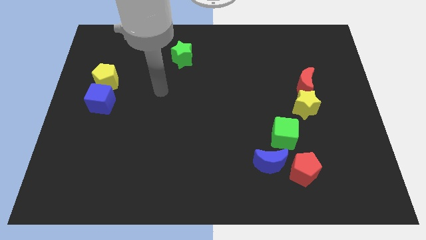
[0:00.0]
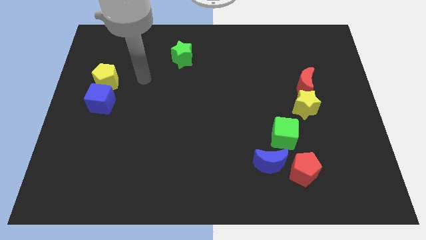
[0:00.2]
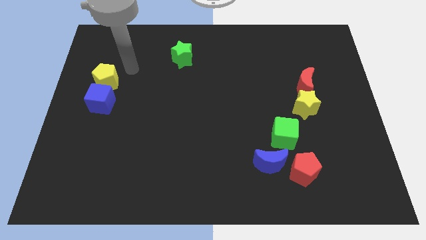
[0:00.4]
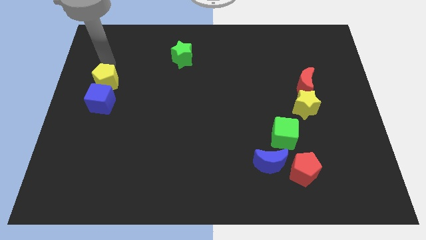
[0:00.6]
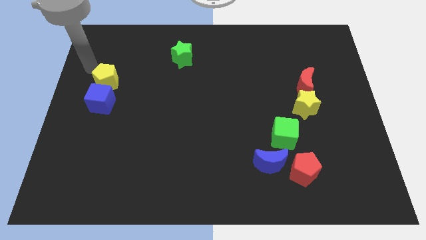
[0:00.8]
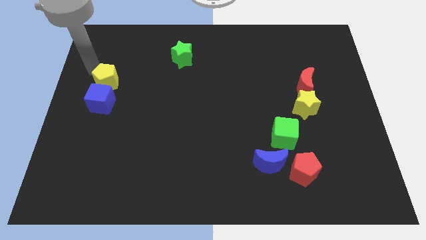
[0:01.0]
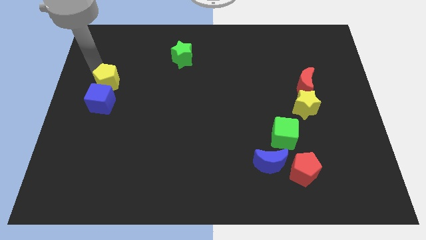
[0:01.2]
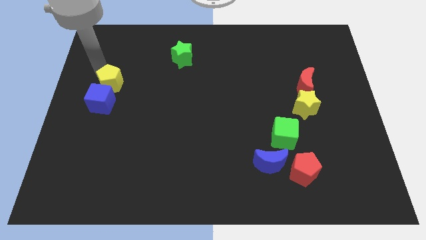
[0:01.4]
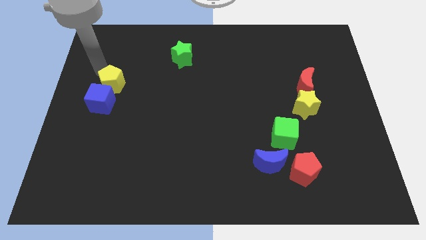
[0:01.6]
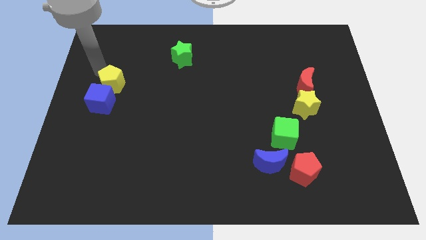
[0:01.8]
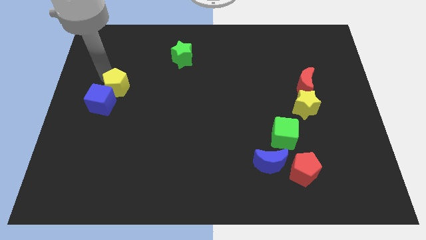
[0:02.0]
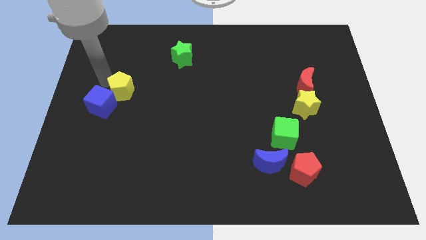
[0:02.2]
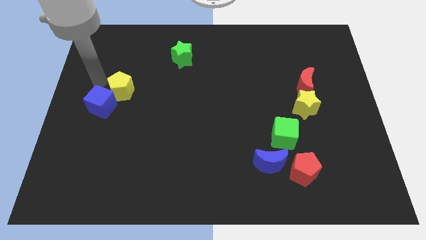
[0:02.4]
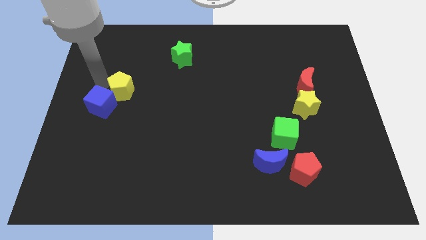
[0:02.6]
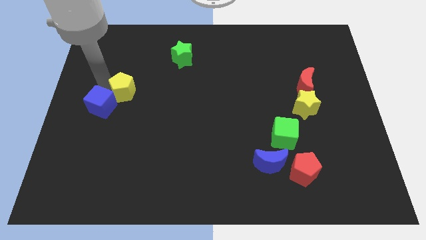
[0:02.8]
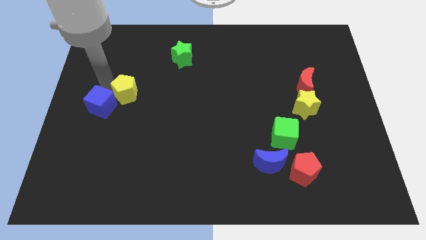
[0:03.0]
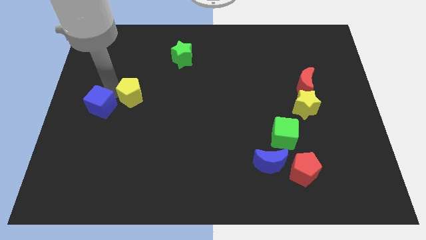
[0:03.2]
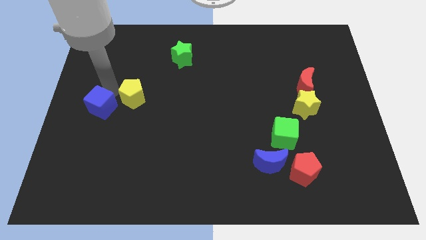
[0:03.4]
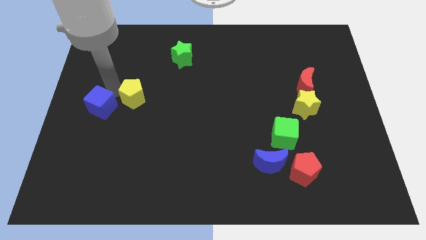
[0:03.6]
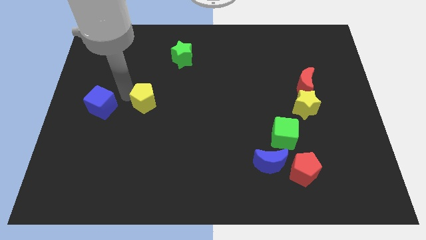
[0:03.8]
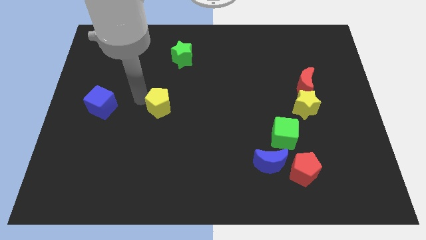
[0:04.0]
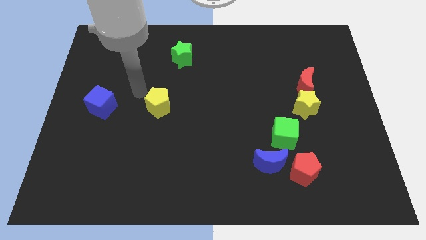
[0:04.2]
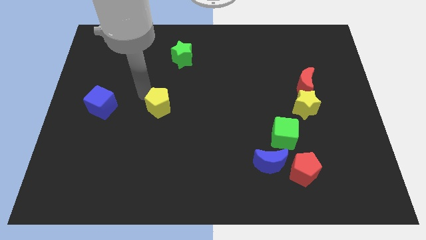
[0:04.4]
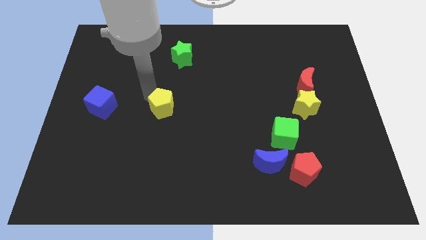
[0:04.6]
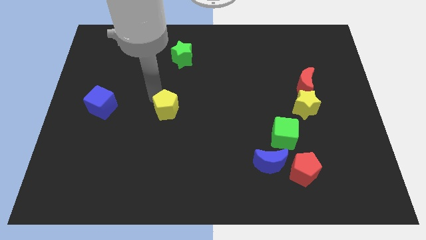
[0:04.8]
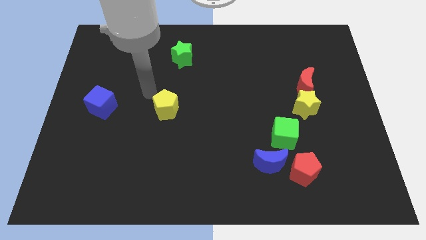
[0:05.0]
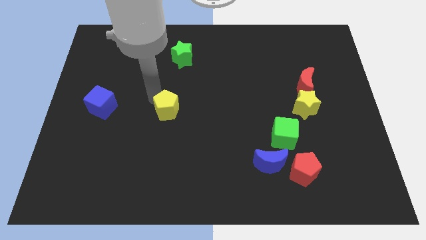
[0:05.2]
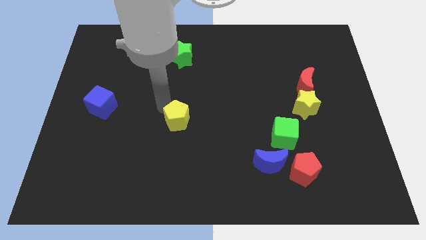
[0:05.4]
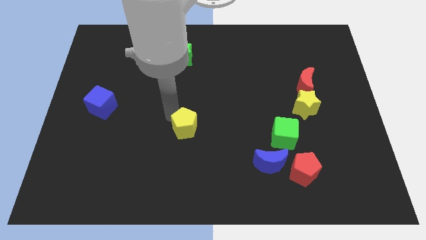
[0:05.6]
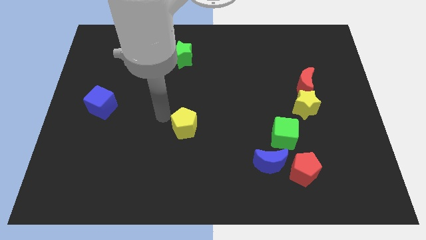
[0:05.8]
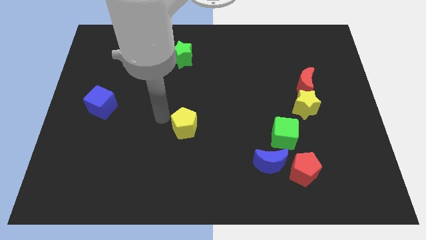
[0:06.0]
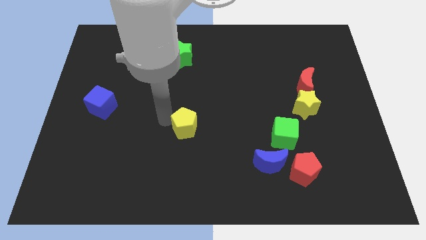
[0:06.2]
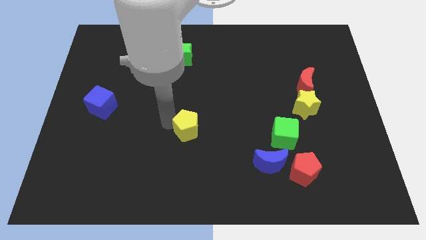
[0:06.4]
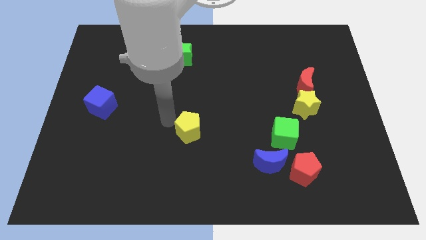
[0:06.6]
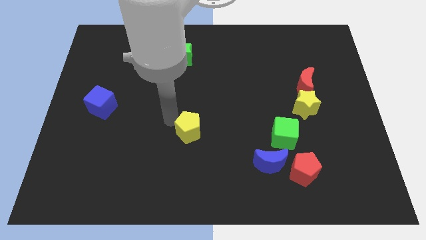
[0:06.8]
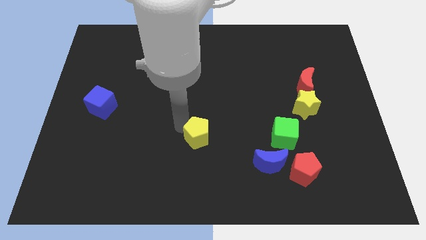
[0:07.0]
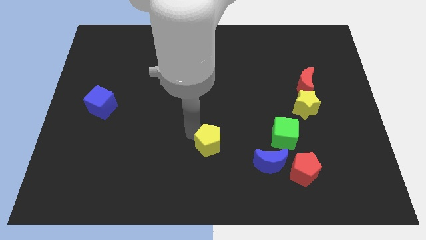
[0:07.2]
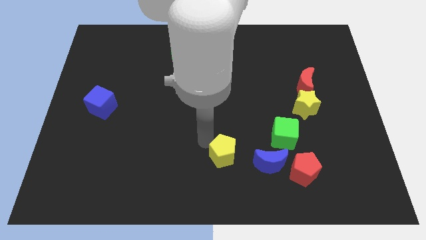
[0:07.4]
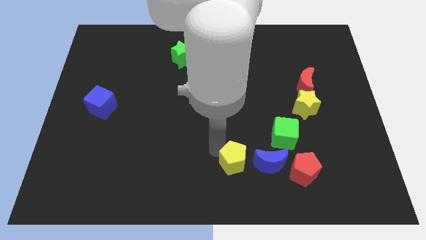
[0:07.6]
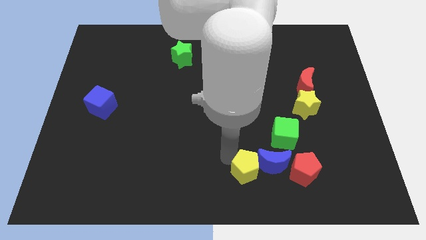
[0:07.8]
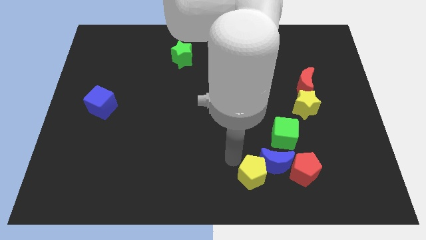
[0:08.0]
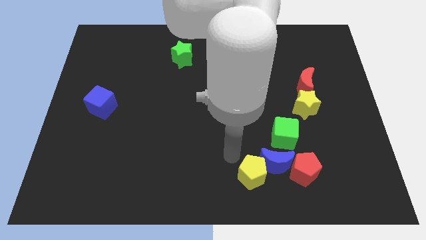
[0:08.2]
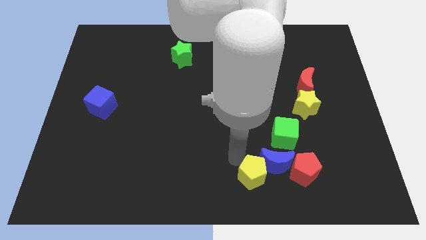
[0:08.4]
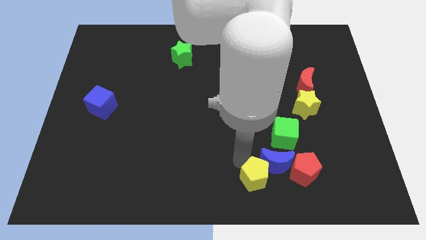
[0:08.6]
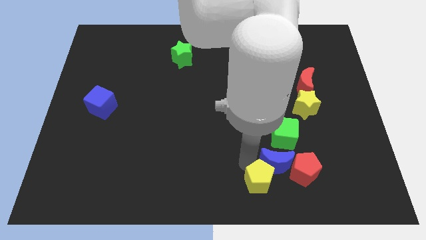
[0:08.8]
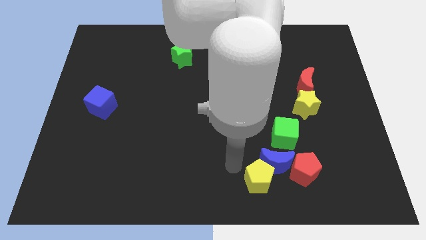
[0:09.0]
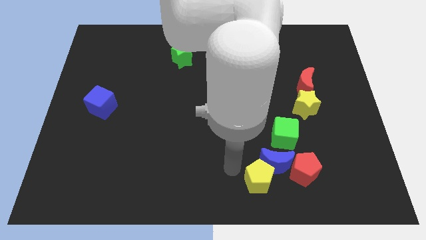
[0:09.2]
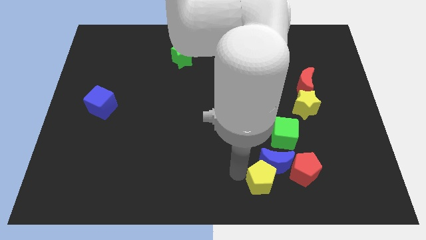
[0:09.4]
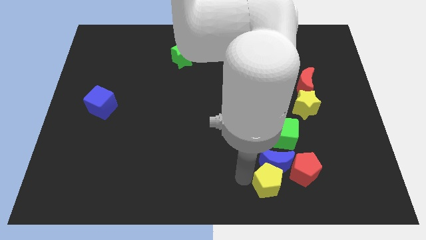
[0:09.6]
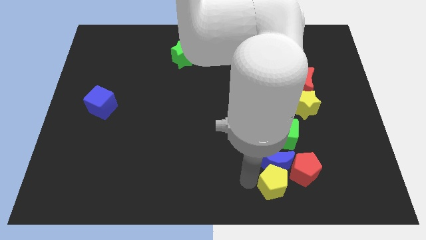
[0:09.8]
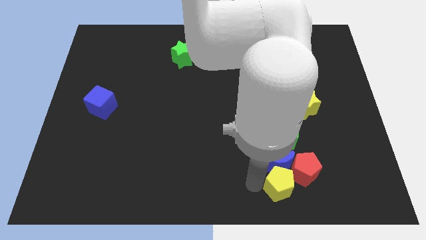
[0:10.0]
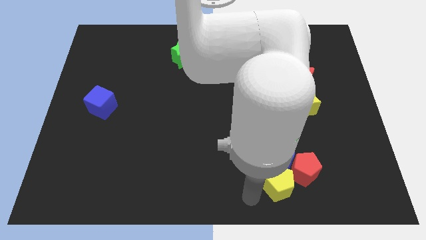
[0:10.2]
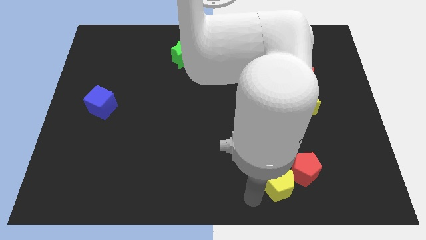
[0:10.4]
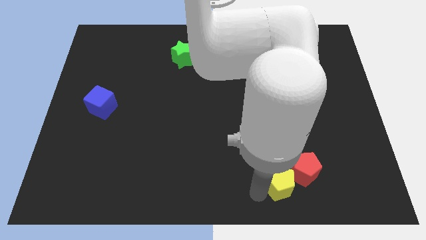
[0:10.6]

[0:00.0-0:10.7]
put the yellow pentagon towards the red pentagon

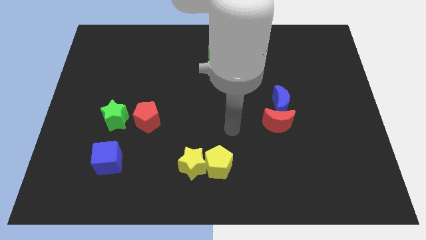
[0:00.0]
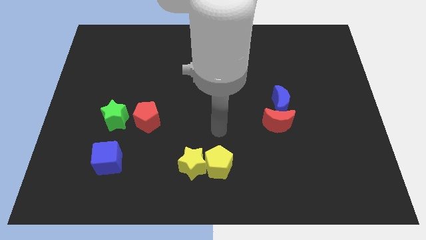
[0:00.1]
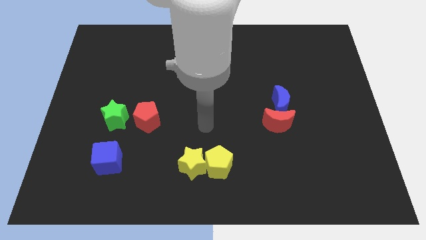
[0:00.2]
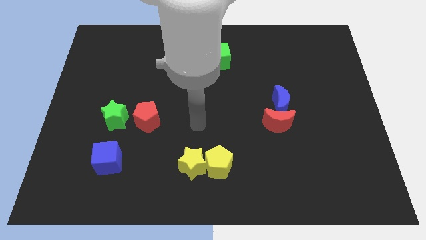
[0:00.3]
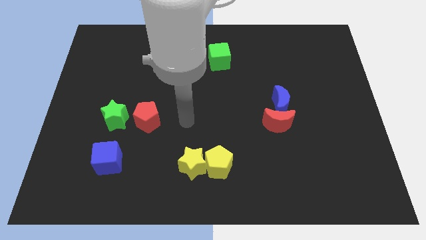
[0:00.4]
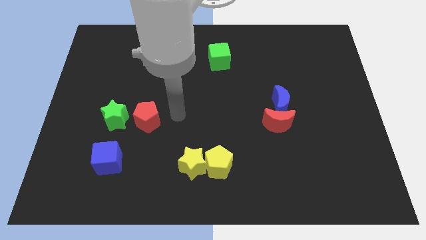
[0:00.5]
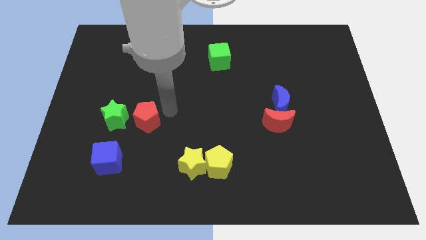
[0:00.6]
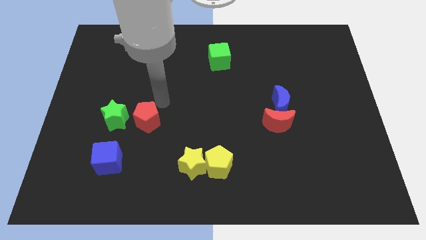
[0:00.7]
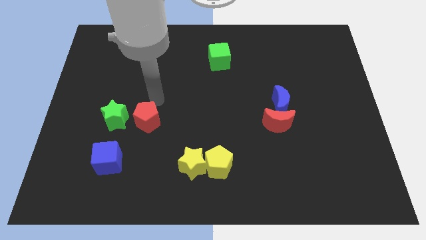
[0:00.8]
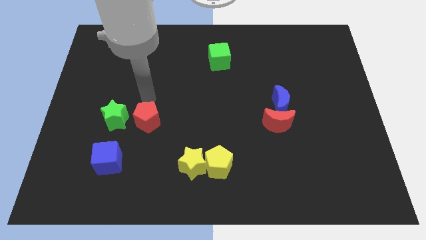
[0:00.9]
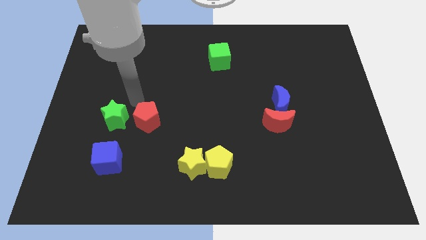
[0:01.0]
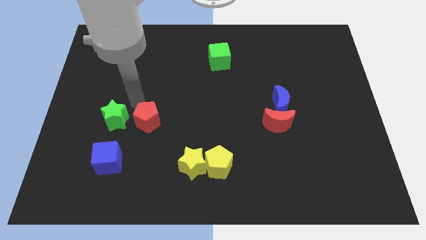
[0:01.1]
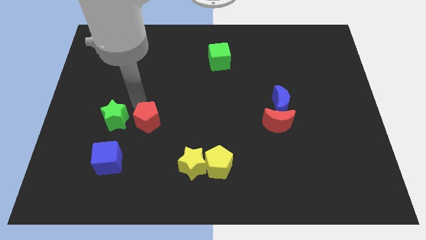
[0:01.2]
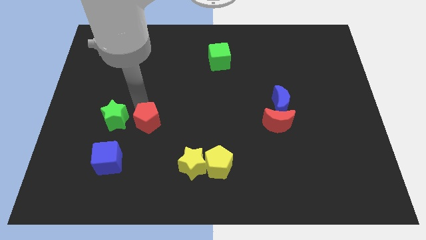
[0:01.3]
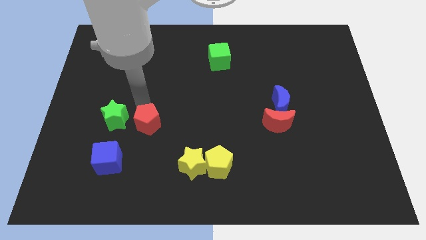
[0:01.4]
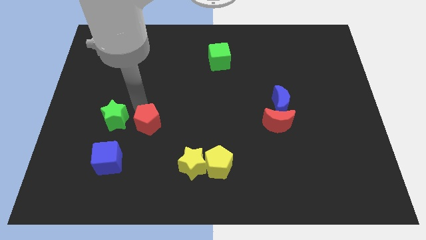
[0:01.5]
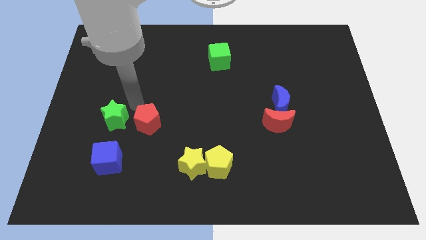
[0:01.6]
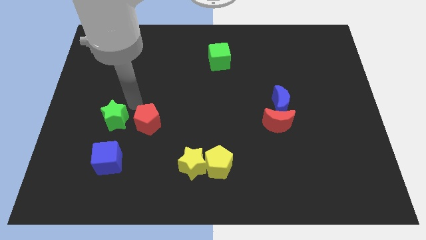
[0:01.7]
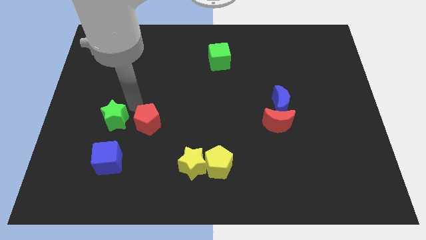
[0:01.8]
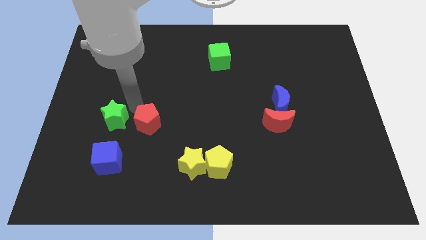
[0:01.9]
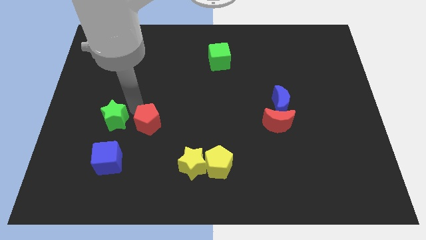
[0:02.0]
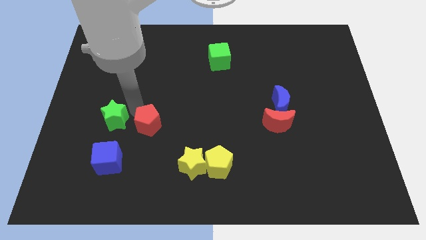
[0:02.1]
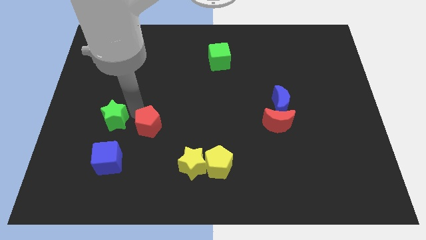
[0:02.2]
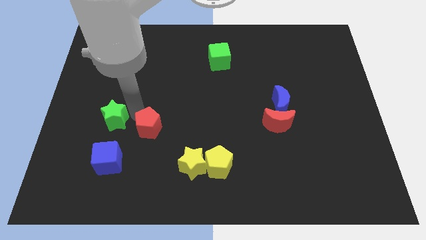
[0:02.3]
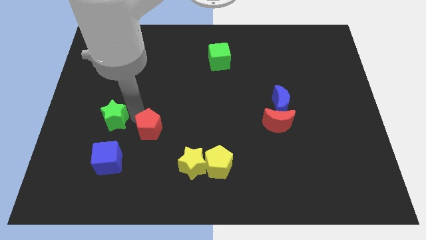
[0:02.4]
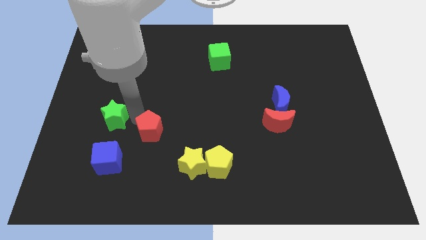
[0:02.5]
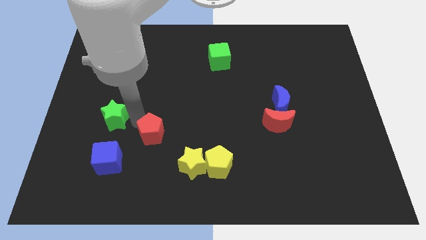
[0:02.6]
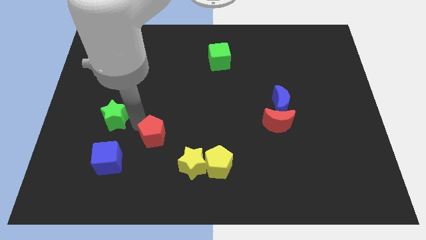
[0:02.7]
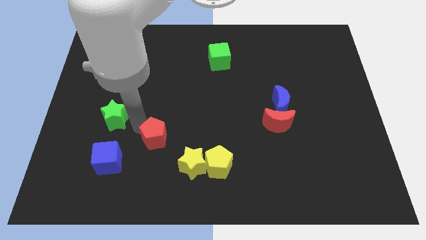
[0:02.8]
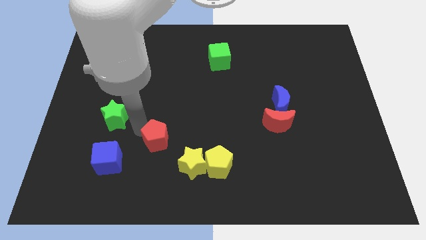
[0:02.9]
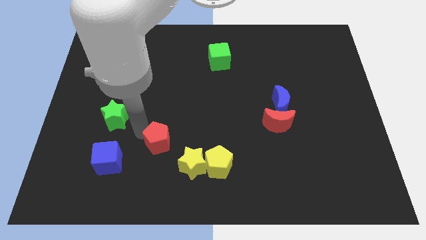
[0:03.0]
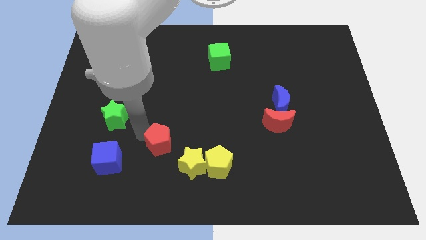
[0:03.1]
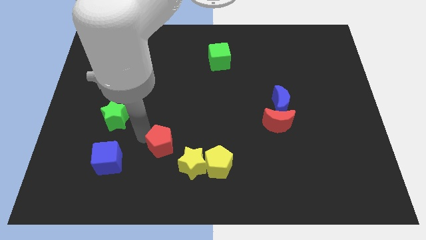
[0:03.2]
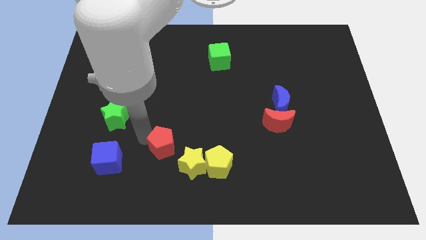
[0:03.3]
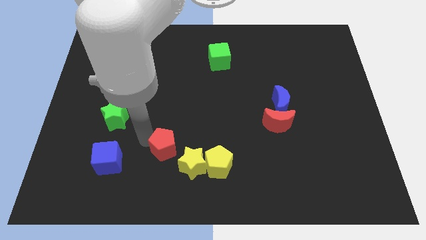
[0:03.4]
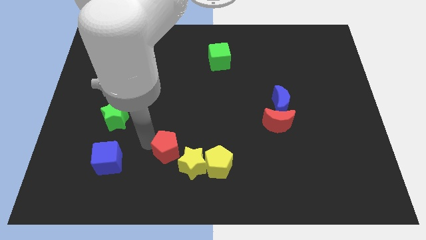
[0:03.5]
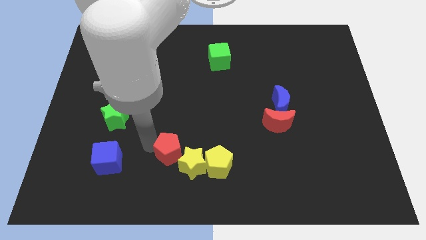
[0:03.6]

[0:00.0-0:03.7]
move the red pentagon next to the yellow star
